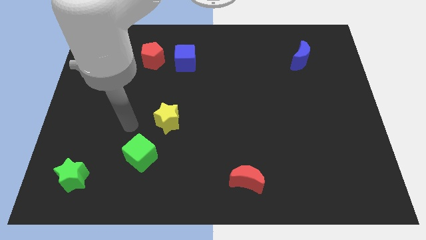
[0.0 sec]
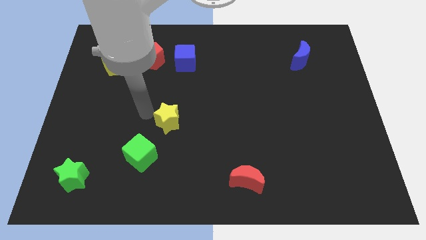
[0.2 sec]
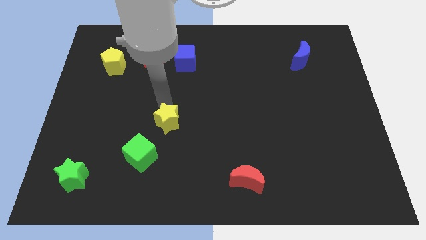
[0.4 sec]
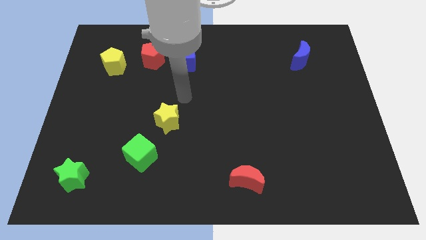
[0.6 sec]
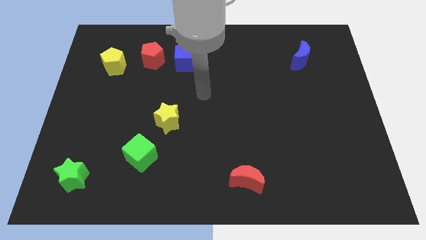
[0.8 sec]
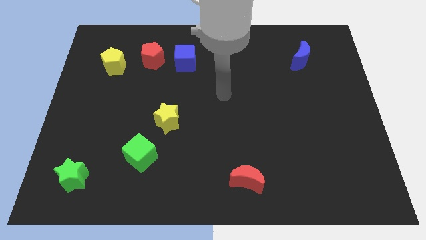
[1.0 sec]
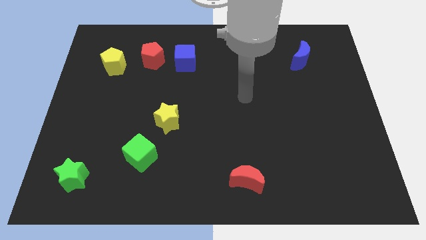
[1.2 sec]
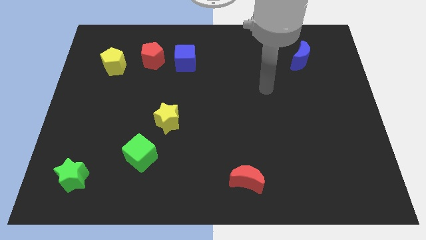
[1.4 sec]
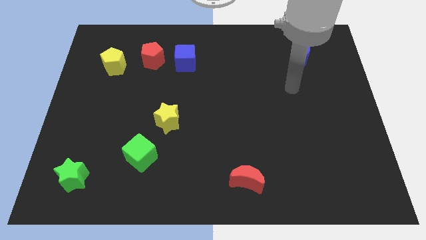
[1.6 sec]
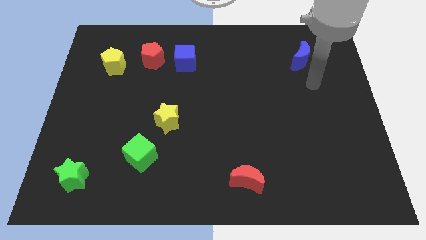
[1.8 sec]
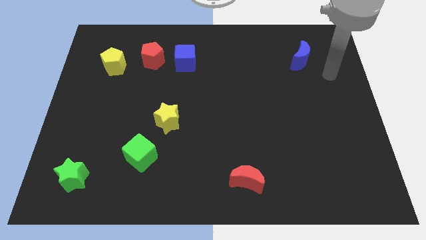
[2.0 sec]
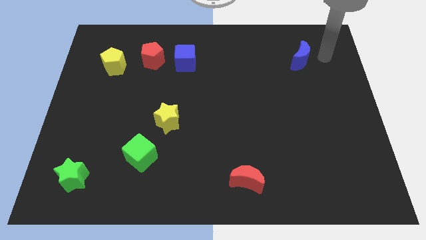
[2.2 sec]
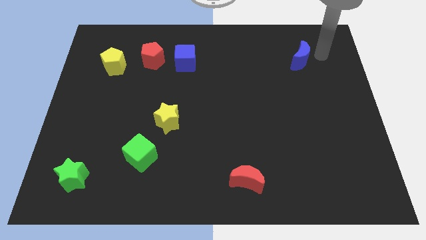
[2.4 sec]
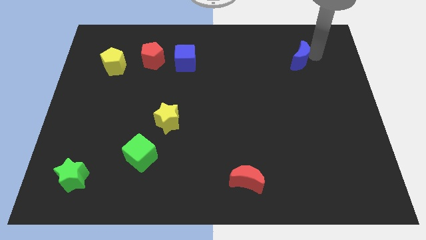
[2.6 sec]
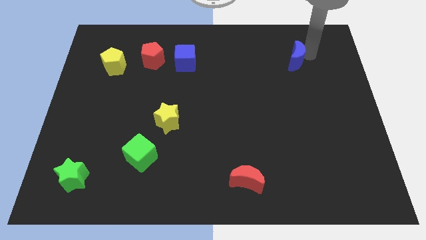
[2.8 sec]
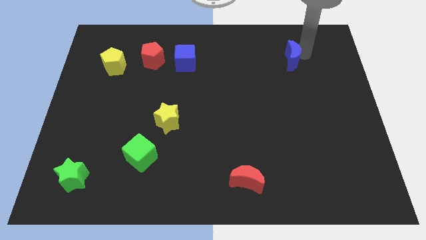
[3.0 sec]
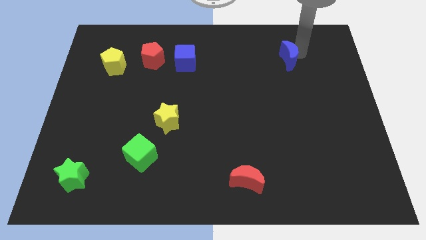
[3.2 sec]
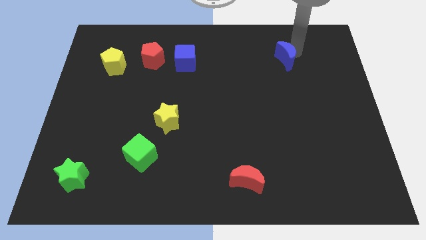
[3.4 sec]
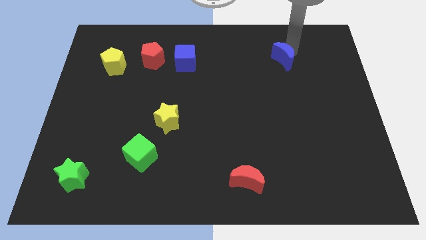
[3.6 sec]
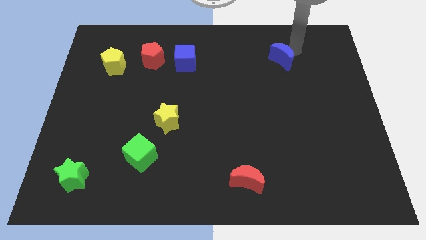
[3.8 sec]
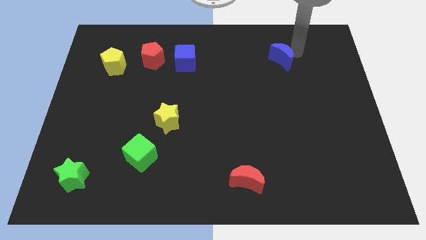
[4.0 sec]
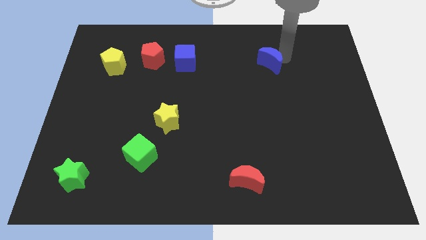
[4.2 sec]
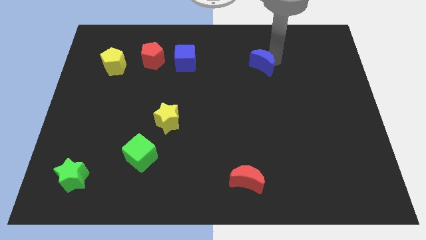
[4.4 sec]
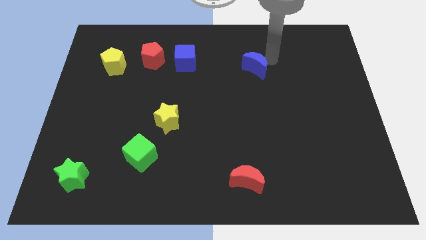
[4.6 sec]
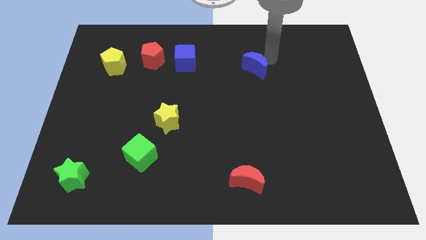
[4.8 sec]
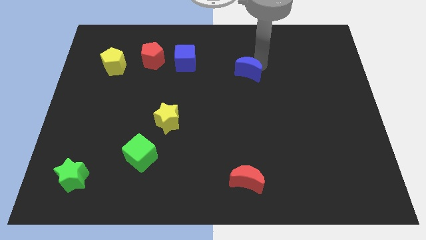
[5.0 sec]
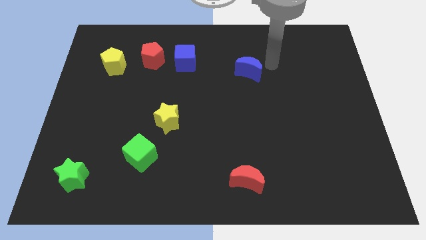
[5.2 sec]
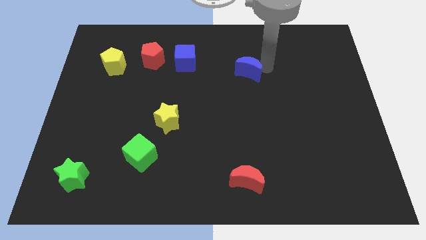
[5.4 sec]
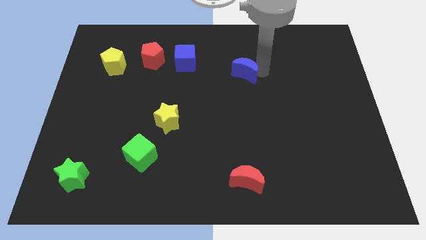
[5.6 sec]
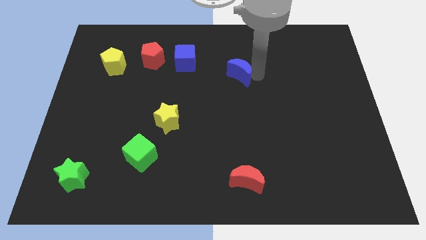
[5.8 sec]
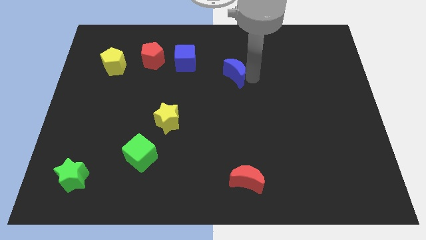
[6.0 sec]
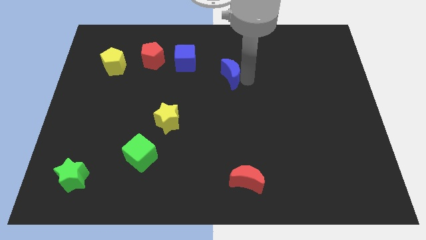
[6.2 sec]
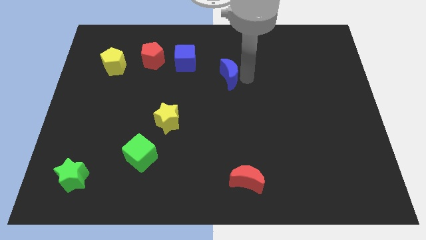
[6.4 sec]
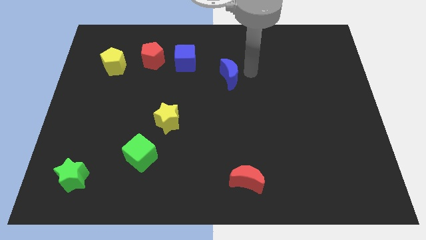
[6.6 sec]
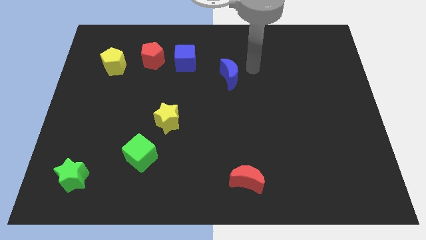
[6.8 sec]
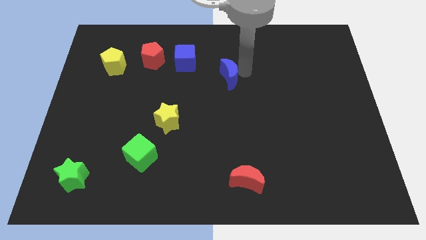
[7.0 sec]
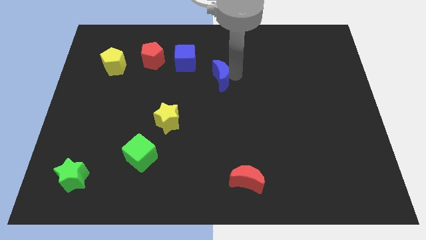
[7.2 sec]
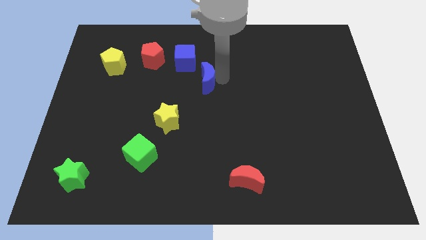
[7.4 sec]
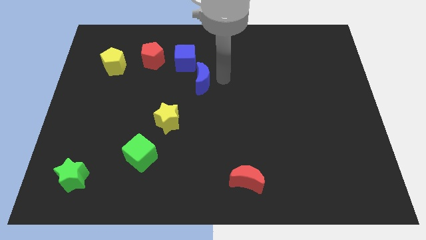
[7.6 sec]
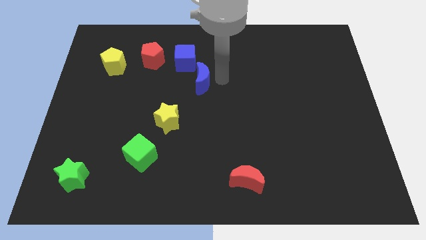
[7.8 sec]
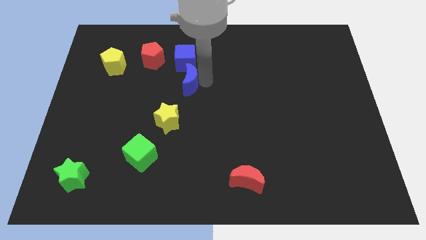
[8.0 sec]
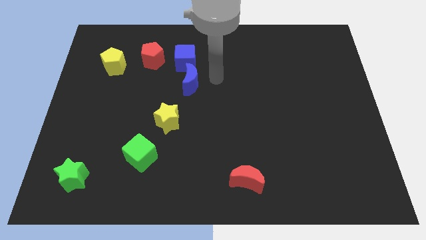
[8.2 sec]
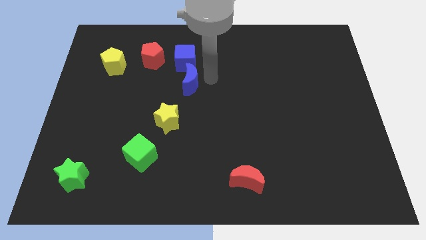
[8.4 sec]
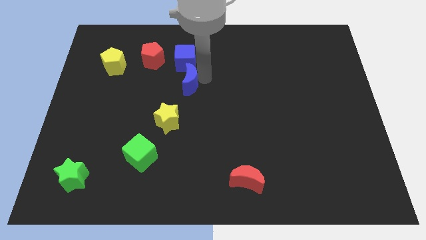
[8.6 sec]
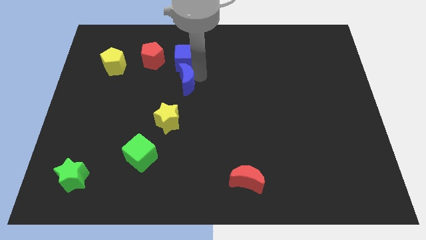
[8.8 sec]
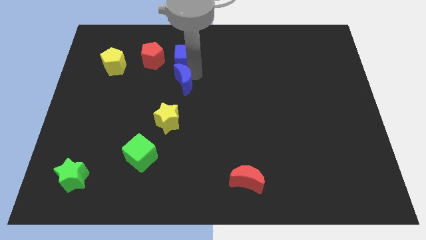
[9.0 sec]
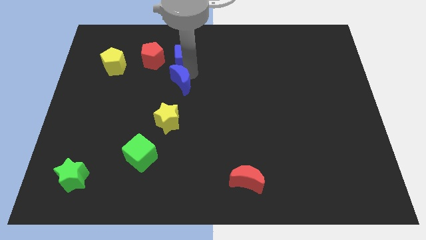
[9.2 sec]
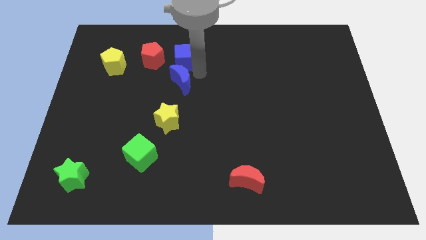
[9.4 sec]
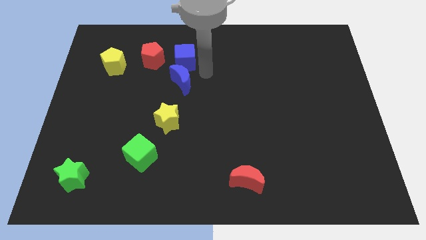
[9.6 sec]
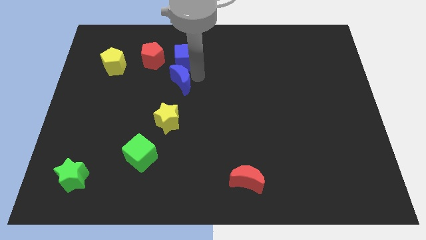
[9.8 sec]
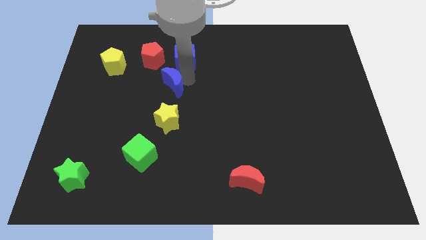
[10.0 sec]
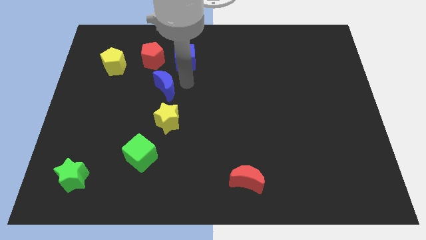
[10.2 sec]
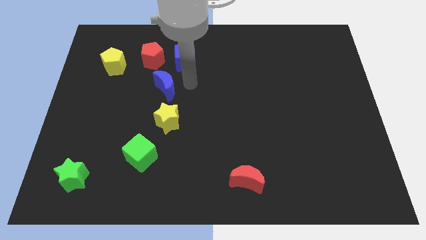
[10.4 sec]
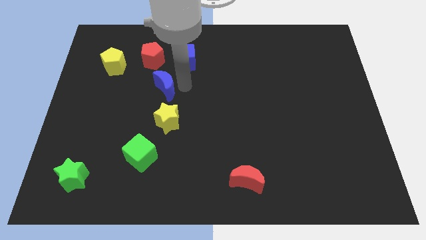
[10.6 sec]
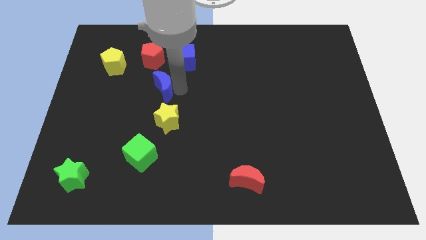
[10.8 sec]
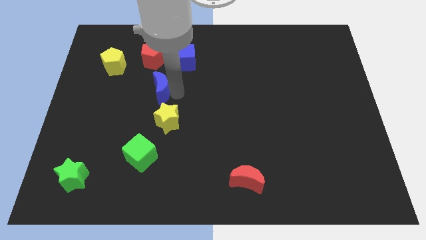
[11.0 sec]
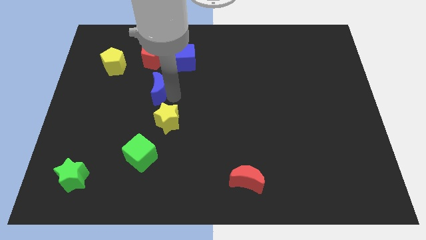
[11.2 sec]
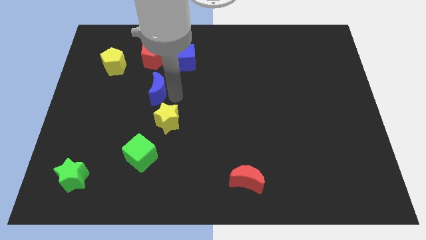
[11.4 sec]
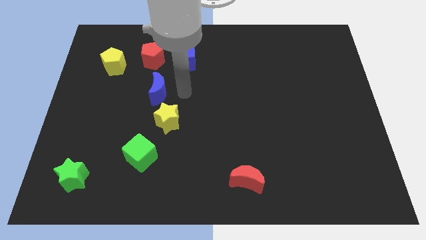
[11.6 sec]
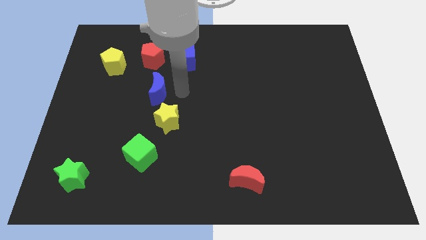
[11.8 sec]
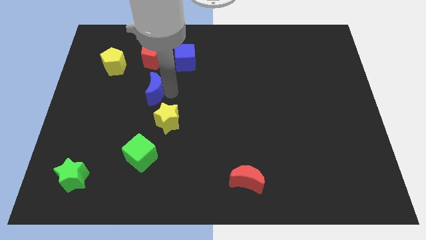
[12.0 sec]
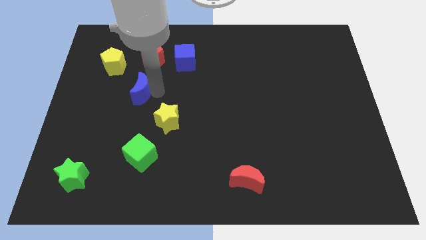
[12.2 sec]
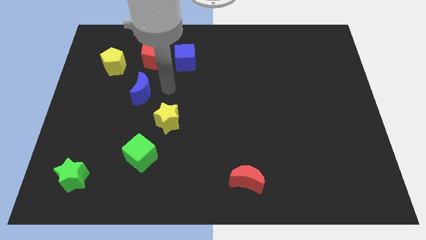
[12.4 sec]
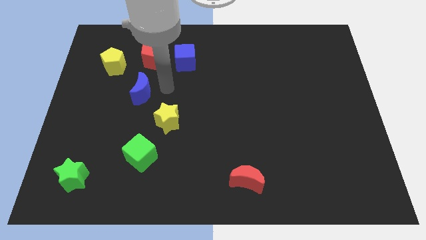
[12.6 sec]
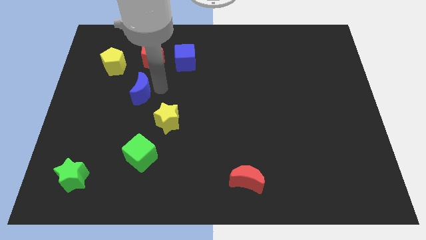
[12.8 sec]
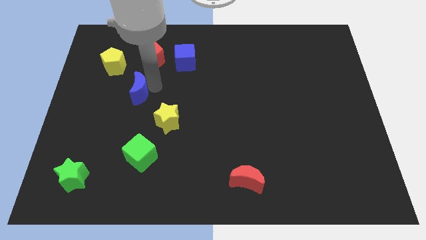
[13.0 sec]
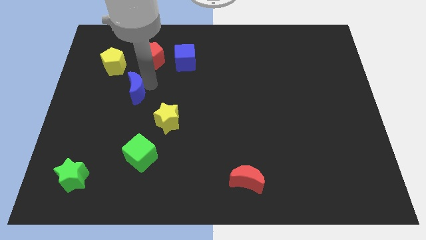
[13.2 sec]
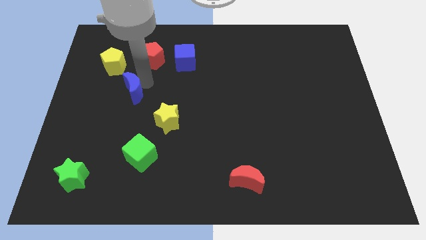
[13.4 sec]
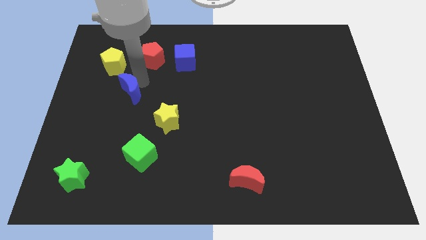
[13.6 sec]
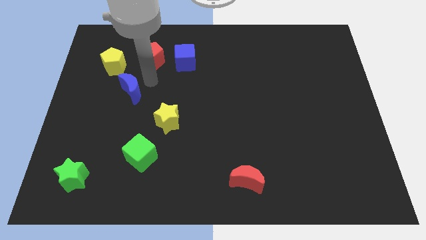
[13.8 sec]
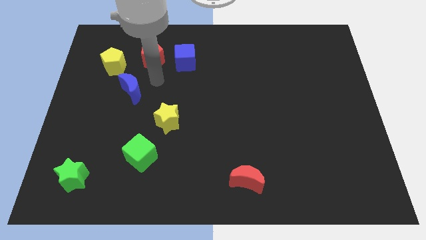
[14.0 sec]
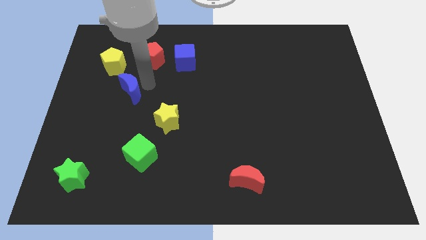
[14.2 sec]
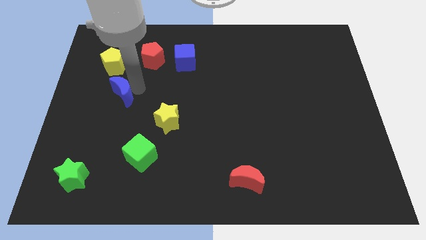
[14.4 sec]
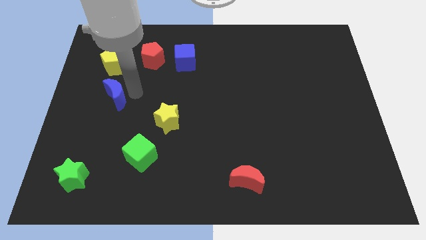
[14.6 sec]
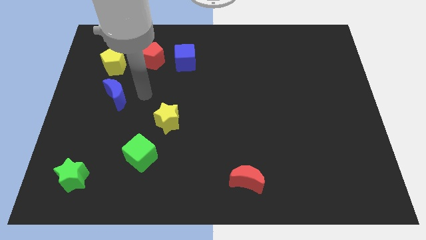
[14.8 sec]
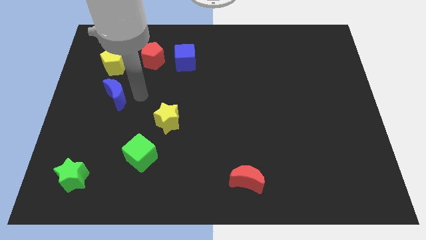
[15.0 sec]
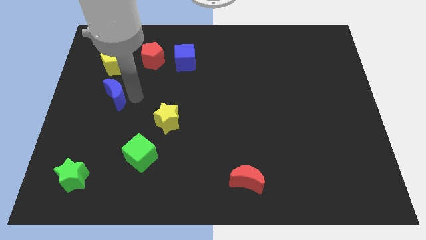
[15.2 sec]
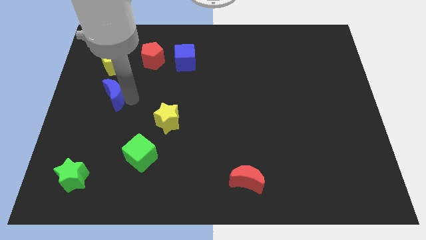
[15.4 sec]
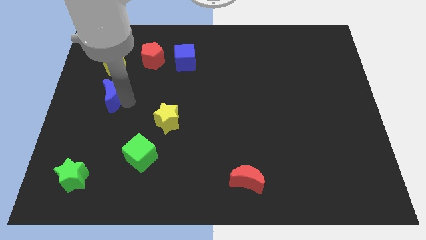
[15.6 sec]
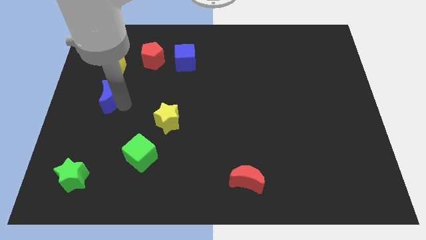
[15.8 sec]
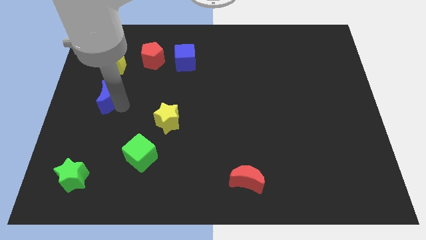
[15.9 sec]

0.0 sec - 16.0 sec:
slide the blue moon to the center left
